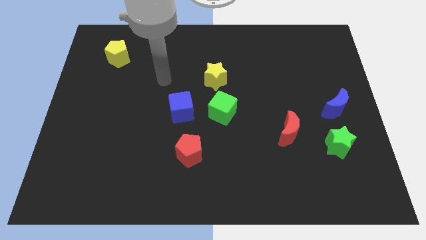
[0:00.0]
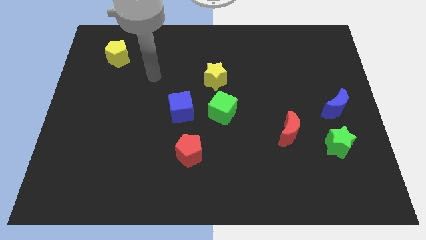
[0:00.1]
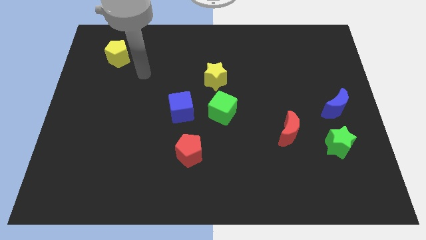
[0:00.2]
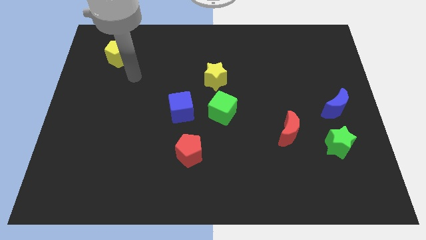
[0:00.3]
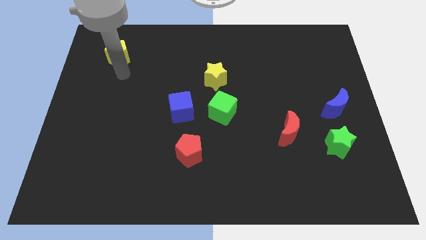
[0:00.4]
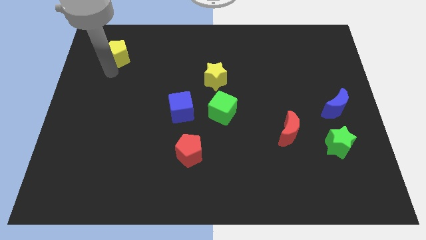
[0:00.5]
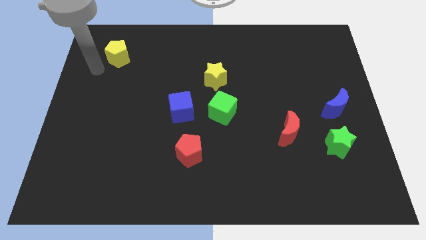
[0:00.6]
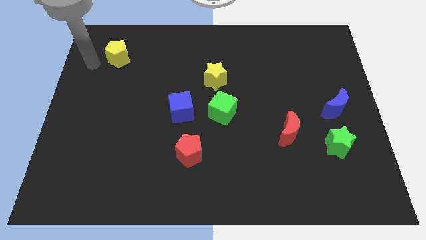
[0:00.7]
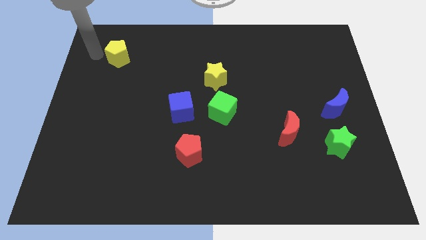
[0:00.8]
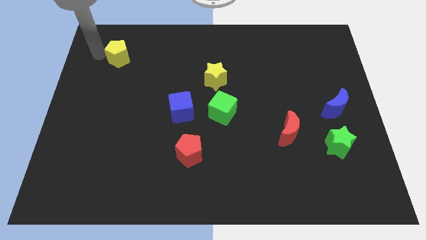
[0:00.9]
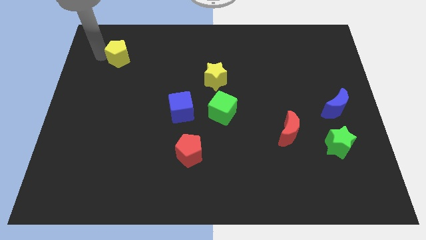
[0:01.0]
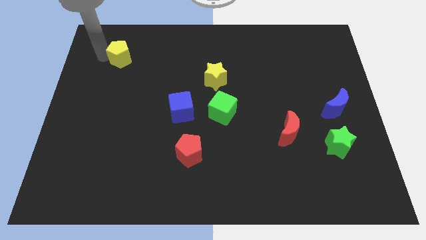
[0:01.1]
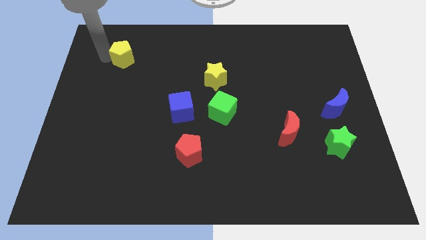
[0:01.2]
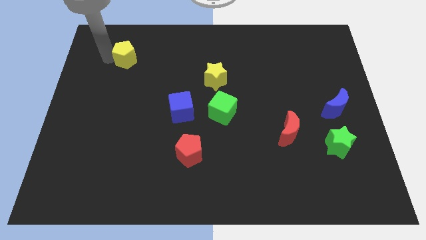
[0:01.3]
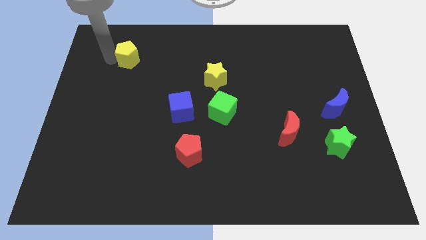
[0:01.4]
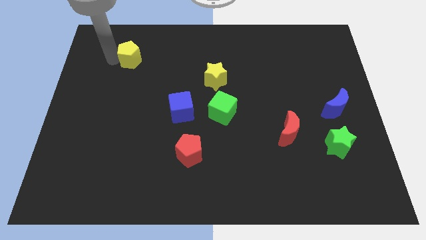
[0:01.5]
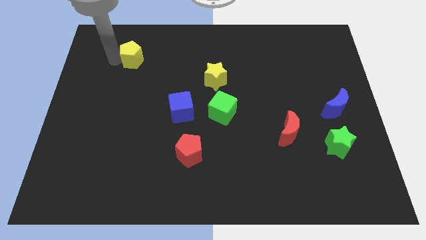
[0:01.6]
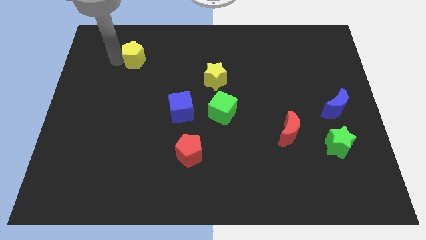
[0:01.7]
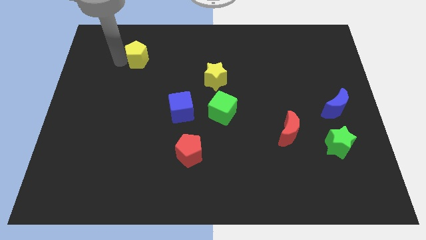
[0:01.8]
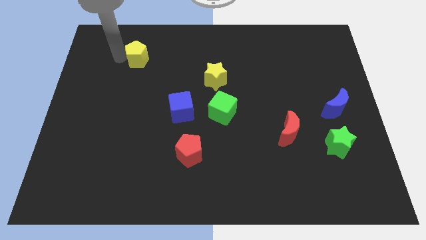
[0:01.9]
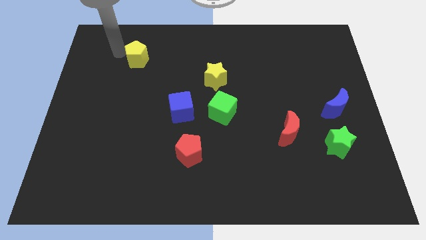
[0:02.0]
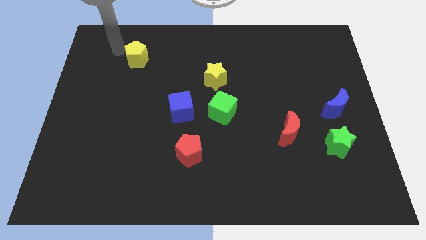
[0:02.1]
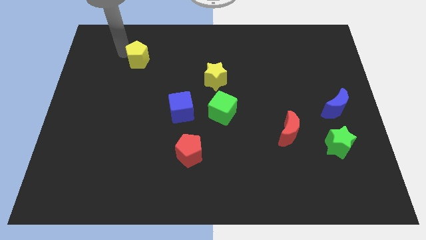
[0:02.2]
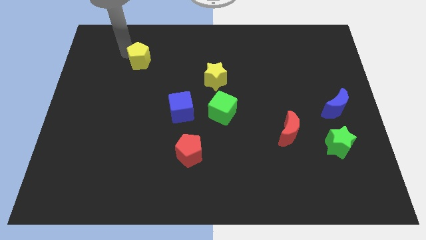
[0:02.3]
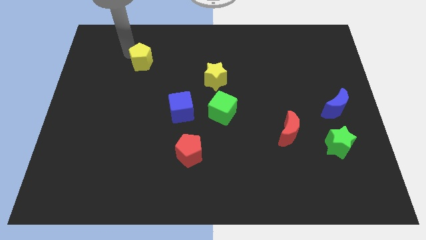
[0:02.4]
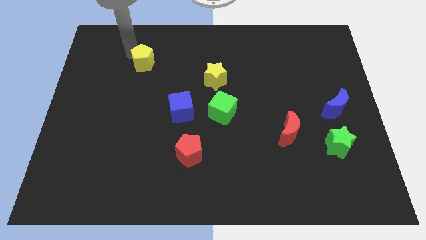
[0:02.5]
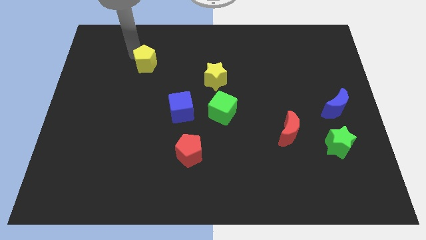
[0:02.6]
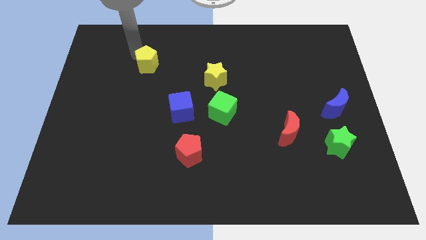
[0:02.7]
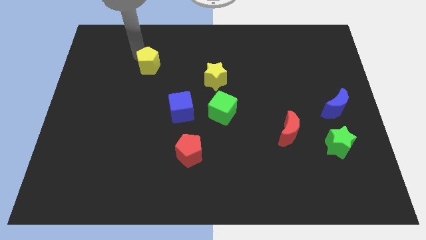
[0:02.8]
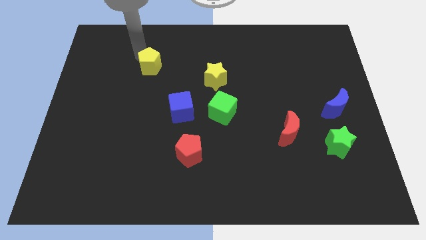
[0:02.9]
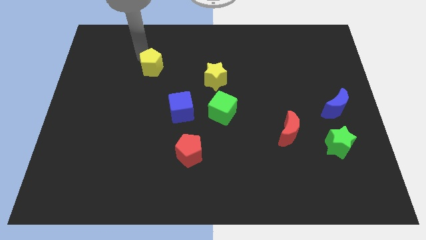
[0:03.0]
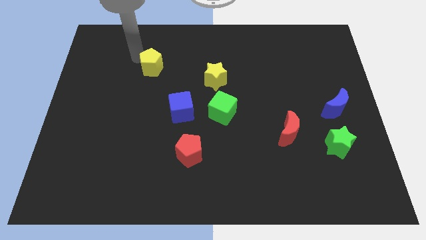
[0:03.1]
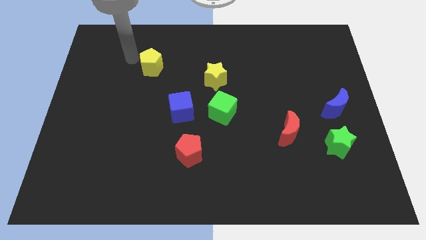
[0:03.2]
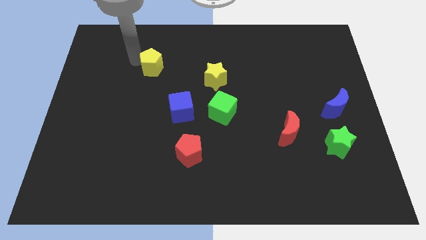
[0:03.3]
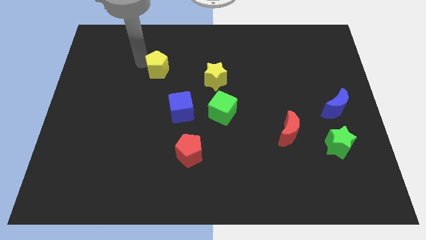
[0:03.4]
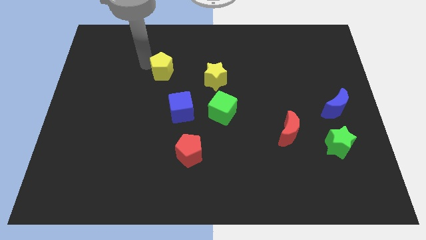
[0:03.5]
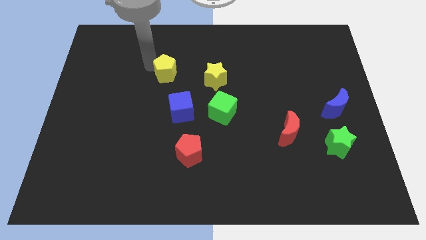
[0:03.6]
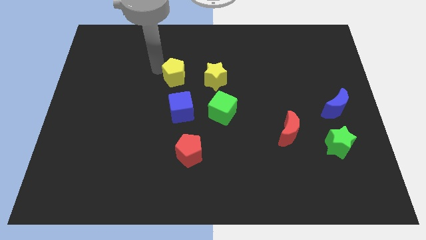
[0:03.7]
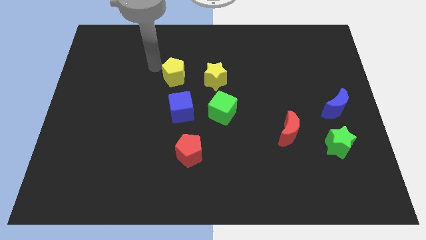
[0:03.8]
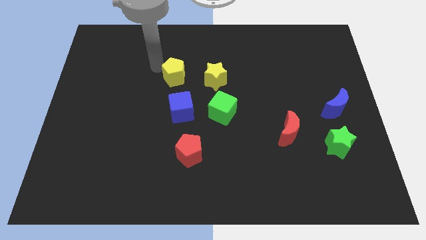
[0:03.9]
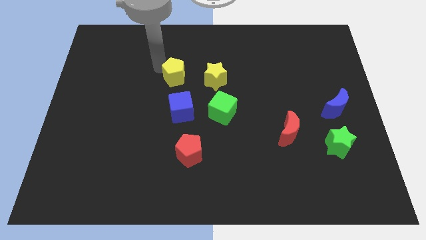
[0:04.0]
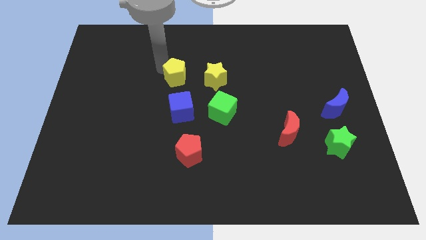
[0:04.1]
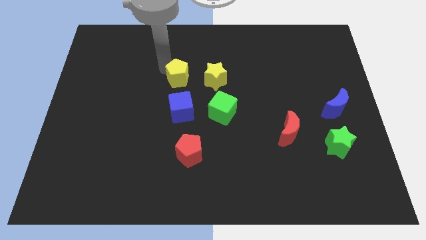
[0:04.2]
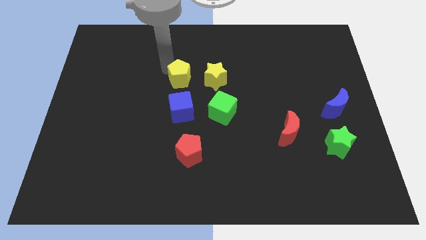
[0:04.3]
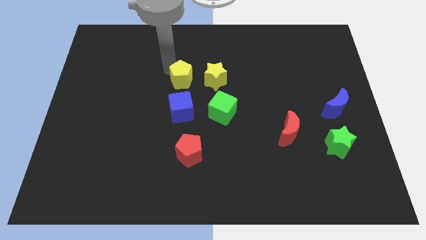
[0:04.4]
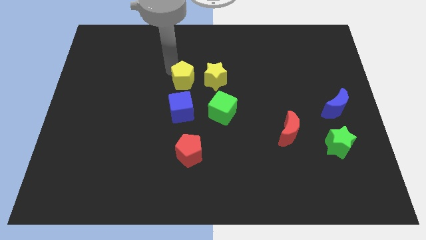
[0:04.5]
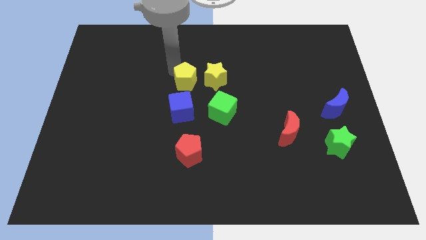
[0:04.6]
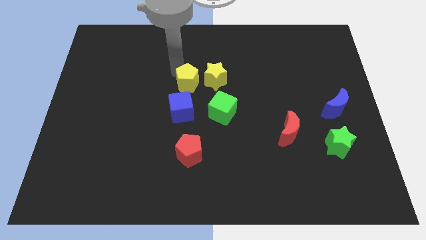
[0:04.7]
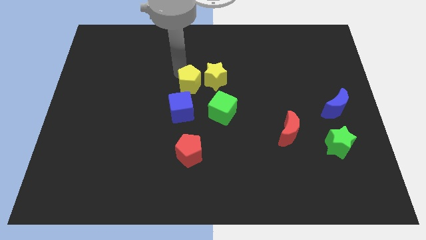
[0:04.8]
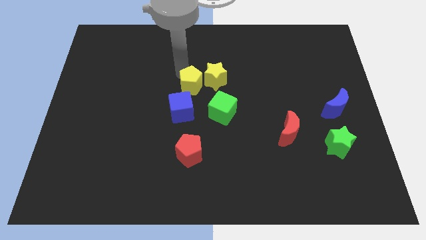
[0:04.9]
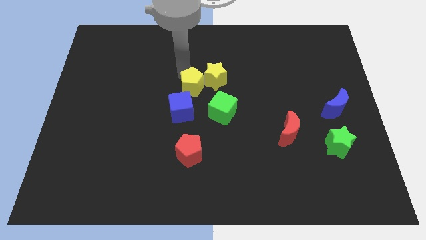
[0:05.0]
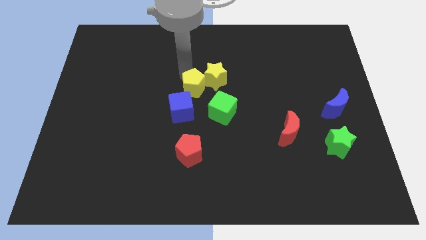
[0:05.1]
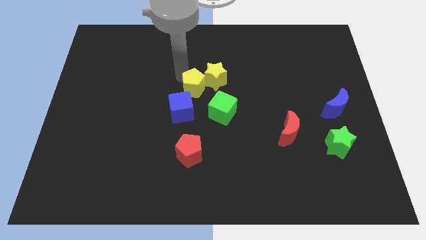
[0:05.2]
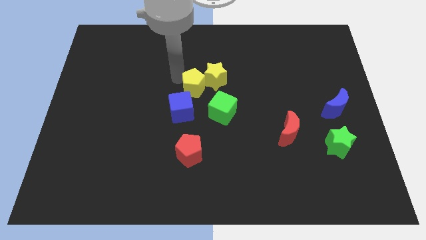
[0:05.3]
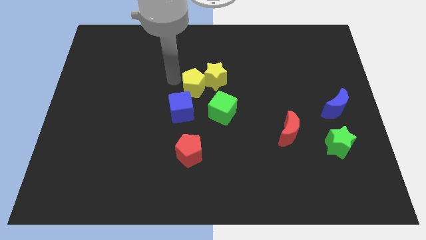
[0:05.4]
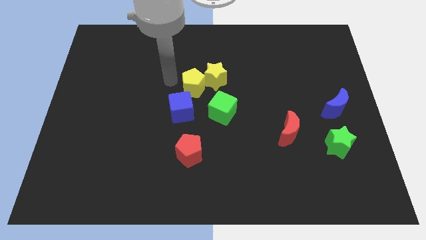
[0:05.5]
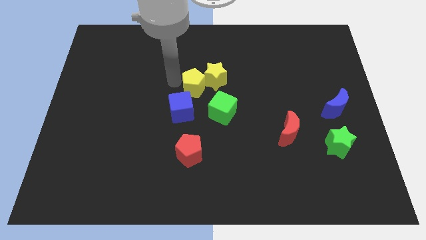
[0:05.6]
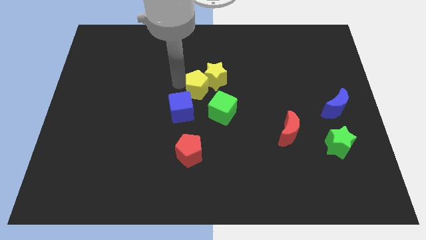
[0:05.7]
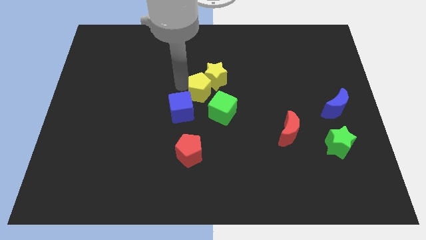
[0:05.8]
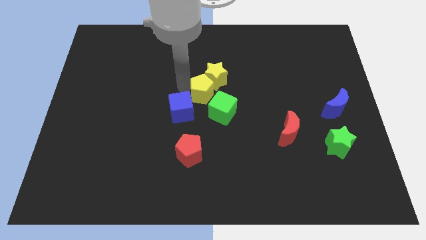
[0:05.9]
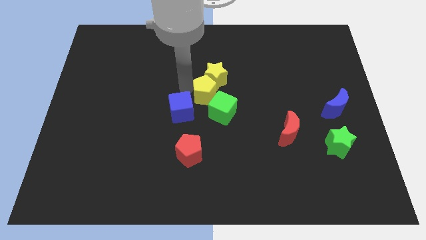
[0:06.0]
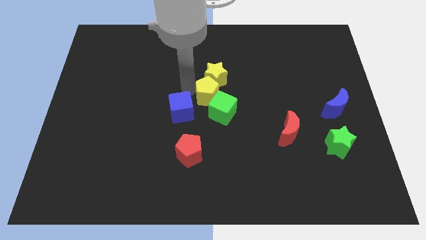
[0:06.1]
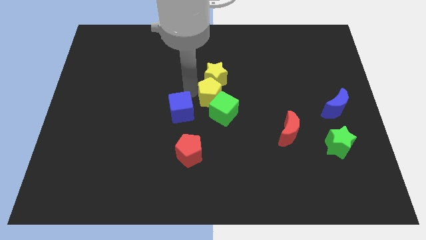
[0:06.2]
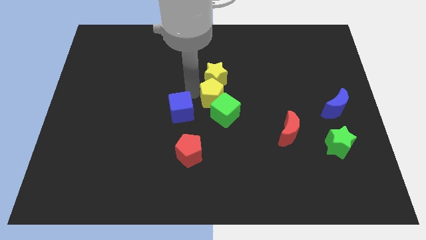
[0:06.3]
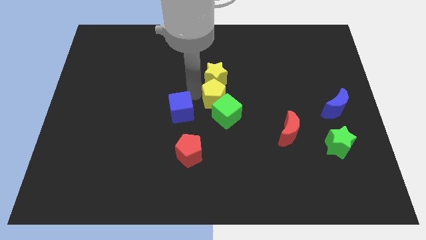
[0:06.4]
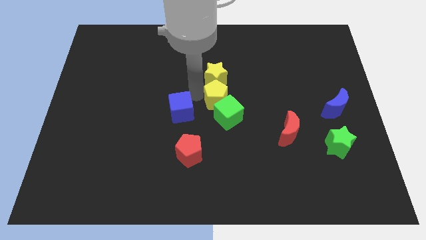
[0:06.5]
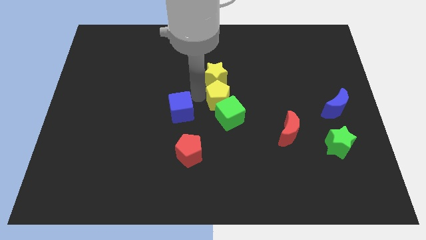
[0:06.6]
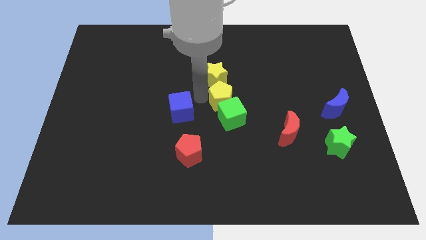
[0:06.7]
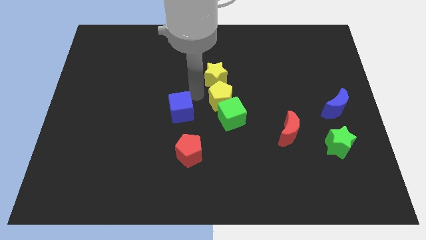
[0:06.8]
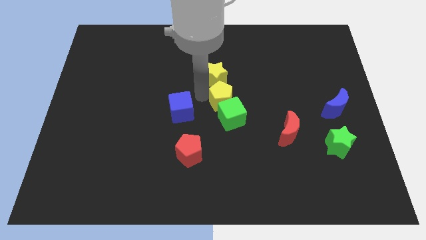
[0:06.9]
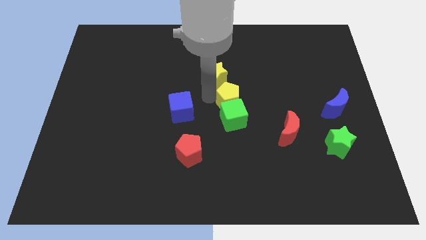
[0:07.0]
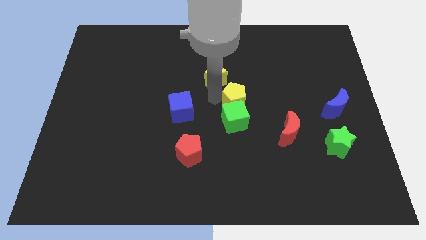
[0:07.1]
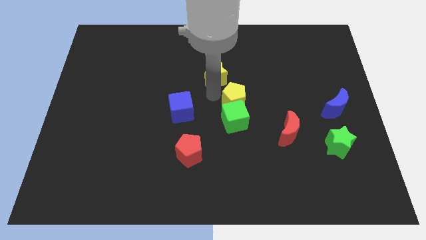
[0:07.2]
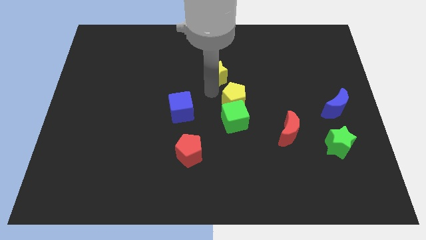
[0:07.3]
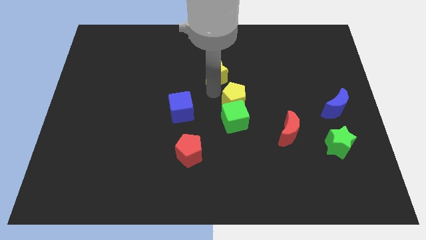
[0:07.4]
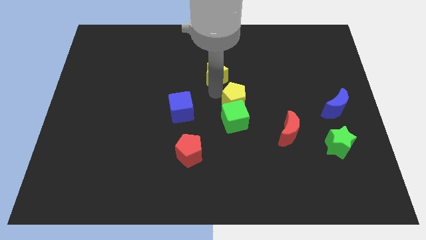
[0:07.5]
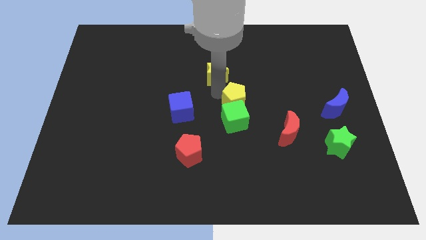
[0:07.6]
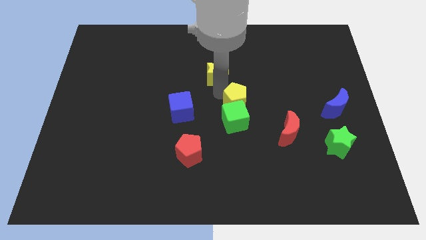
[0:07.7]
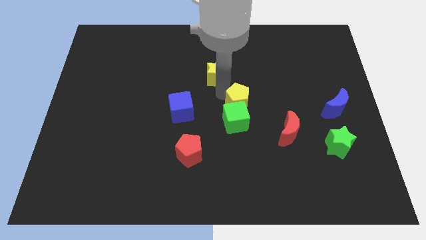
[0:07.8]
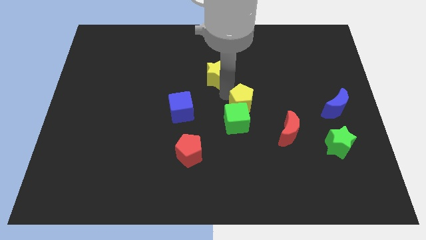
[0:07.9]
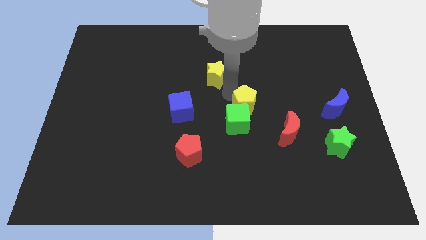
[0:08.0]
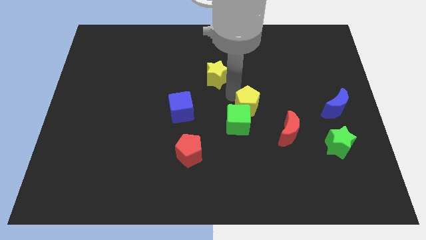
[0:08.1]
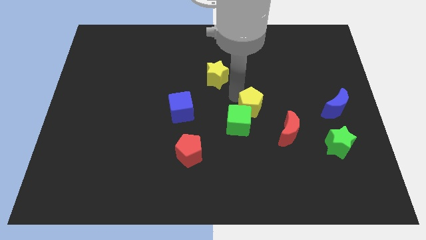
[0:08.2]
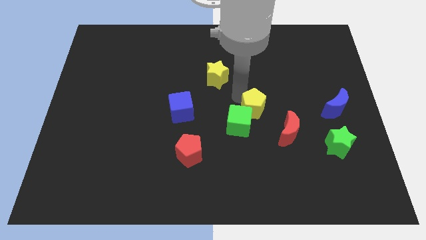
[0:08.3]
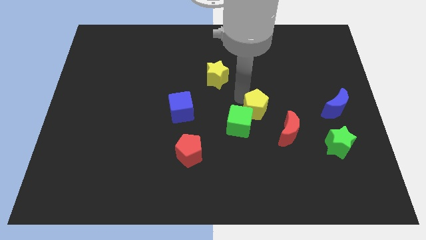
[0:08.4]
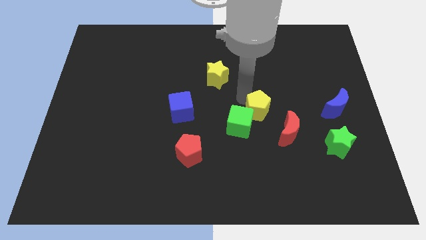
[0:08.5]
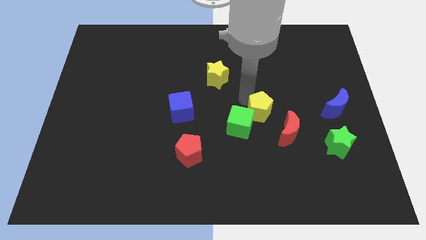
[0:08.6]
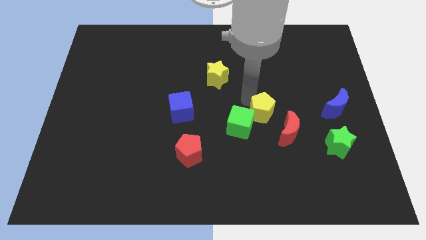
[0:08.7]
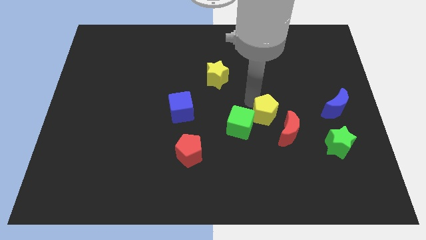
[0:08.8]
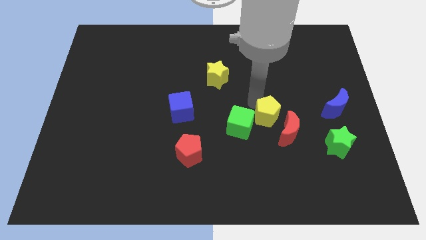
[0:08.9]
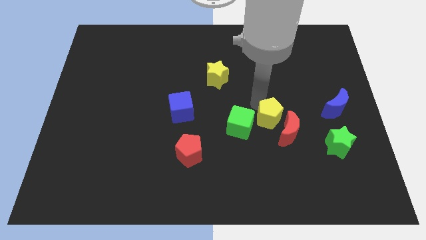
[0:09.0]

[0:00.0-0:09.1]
put the yellow pentagon towards the red moon
